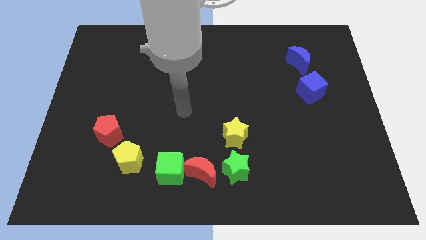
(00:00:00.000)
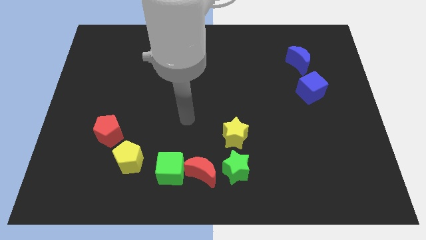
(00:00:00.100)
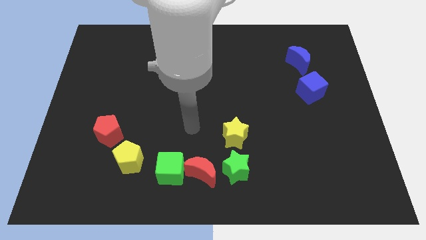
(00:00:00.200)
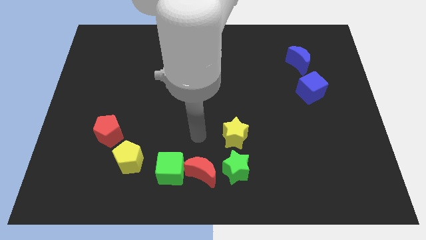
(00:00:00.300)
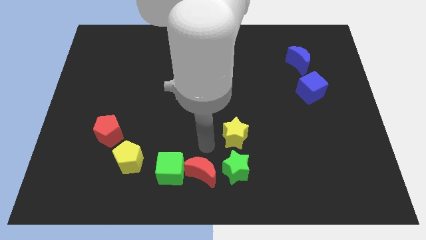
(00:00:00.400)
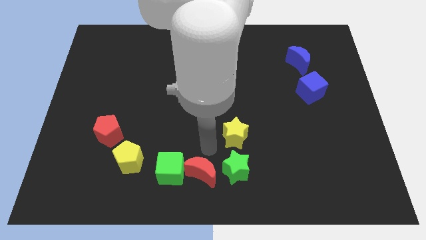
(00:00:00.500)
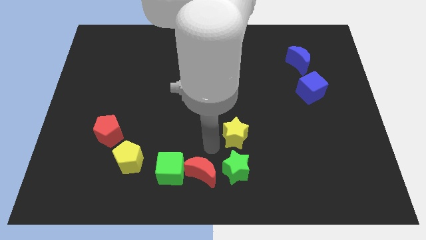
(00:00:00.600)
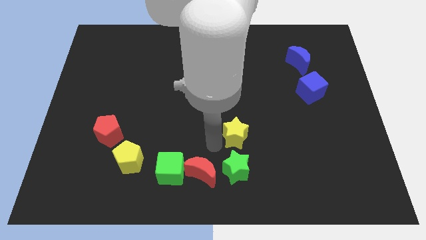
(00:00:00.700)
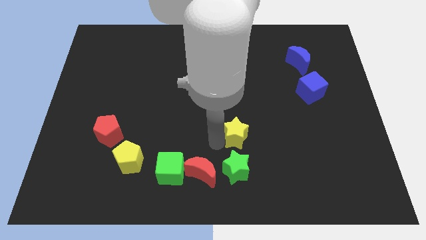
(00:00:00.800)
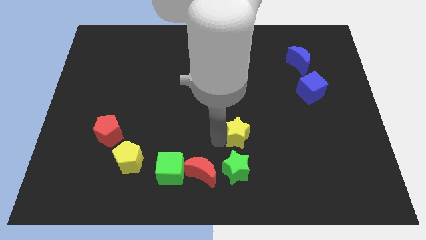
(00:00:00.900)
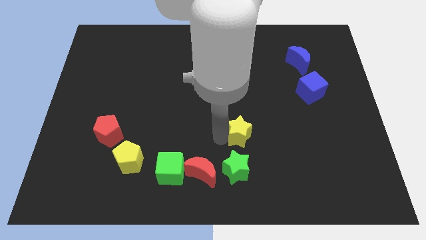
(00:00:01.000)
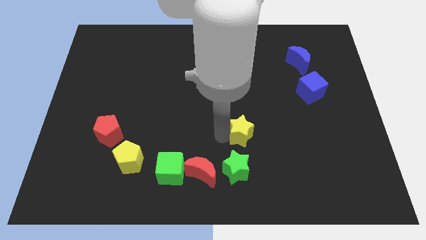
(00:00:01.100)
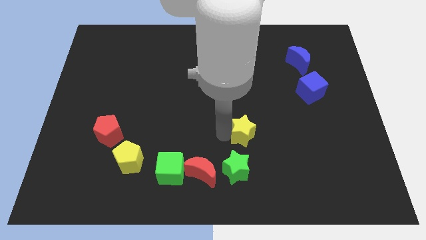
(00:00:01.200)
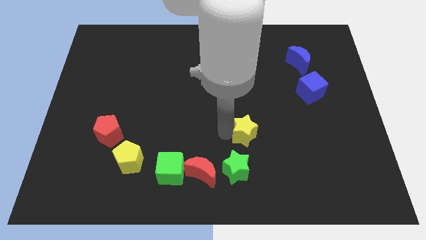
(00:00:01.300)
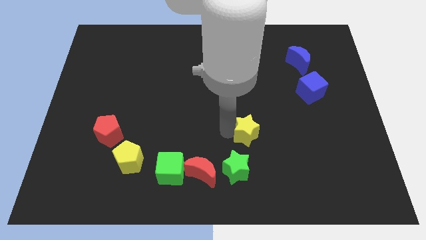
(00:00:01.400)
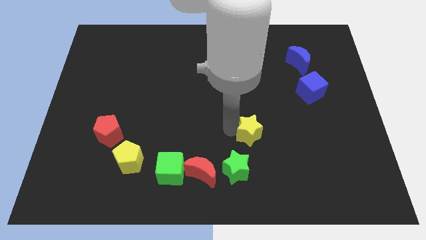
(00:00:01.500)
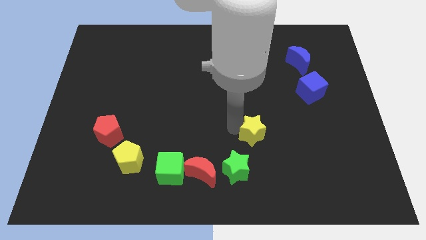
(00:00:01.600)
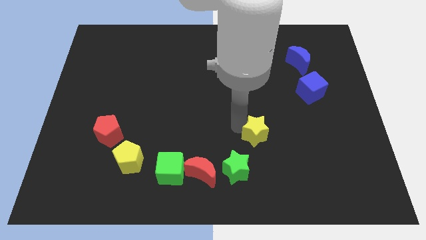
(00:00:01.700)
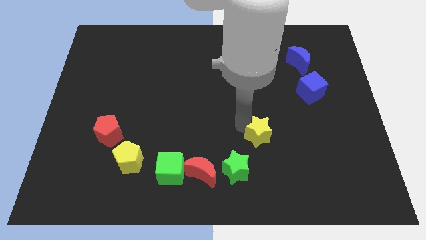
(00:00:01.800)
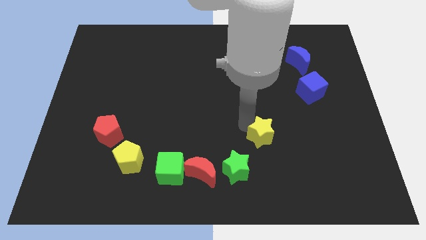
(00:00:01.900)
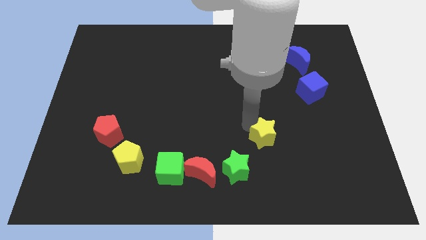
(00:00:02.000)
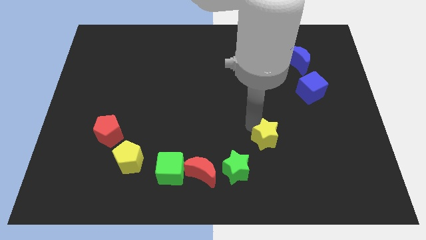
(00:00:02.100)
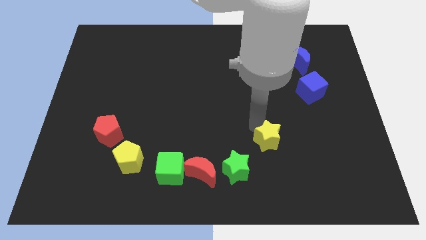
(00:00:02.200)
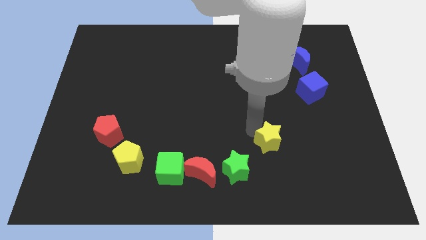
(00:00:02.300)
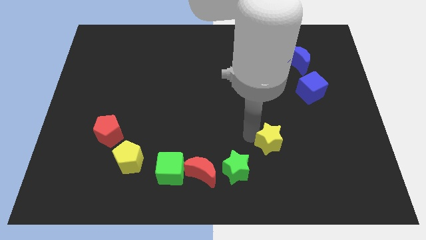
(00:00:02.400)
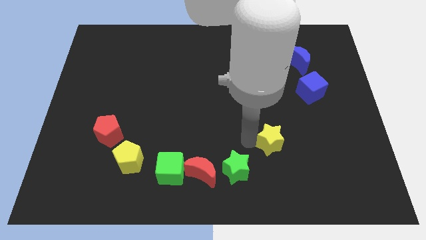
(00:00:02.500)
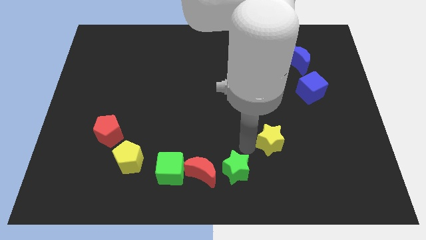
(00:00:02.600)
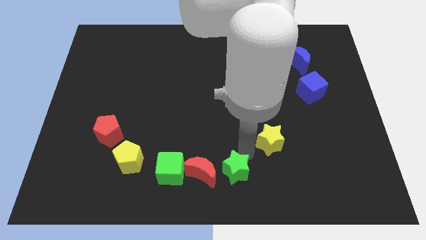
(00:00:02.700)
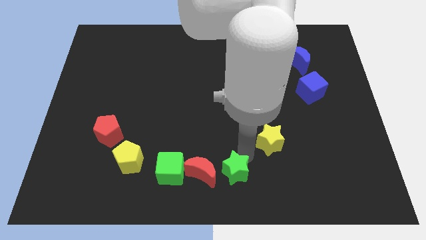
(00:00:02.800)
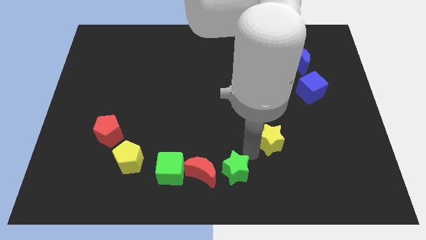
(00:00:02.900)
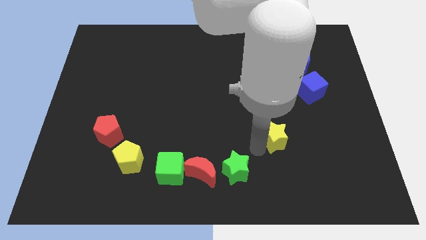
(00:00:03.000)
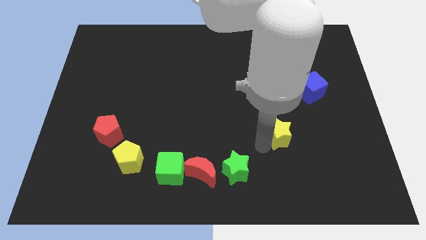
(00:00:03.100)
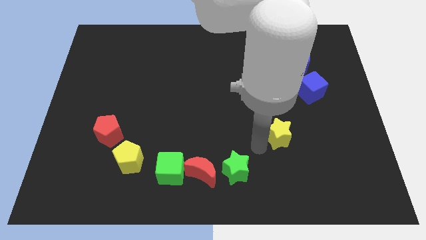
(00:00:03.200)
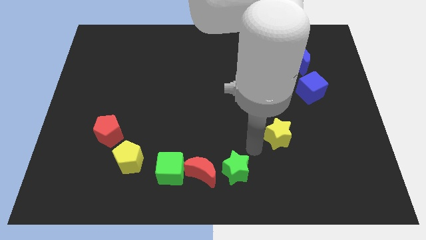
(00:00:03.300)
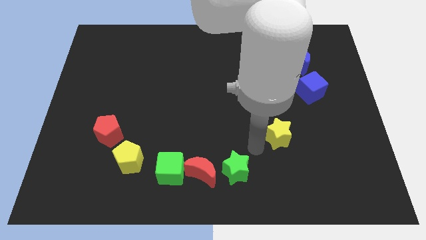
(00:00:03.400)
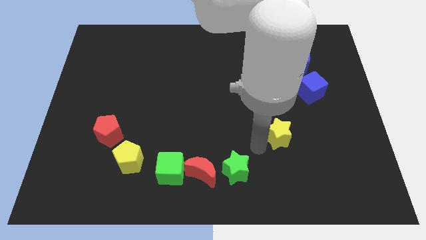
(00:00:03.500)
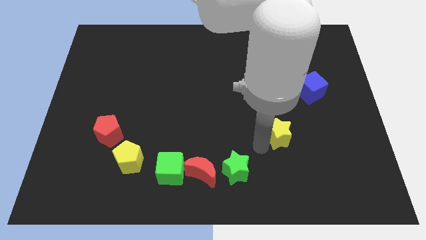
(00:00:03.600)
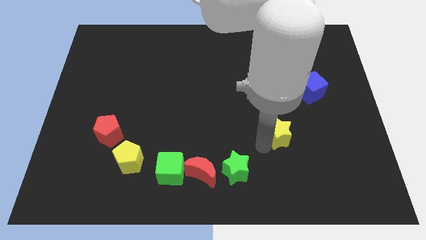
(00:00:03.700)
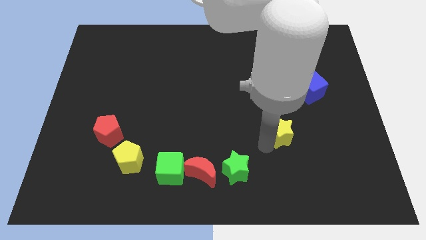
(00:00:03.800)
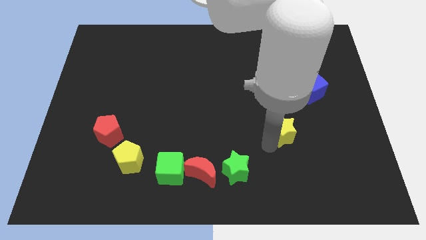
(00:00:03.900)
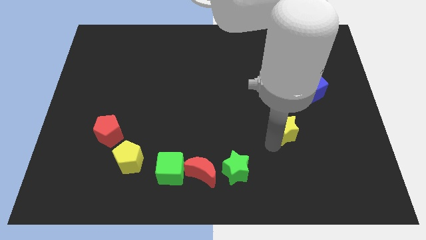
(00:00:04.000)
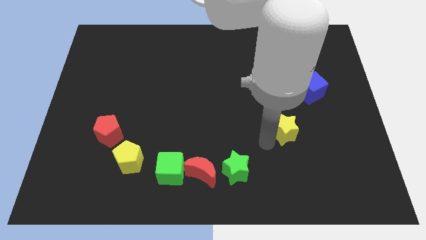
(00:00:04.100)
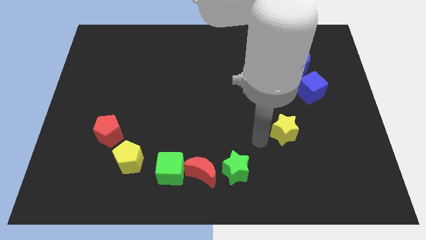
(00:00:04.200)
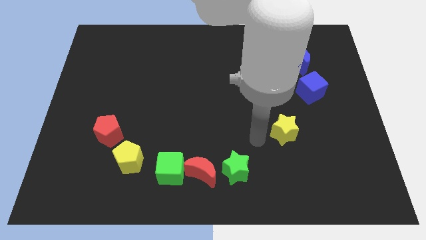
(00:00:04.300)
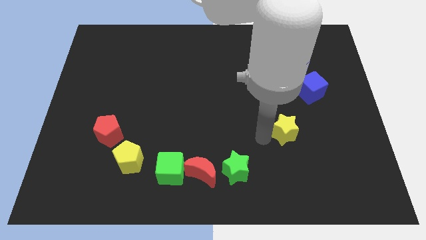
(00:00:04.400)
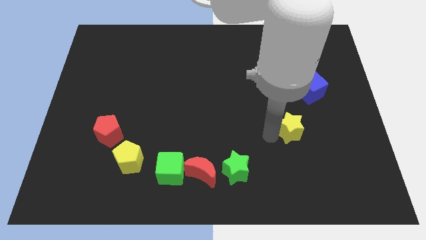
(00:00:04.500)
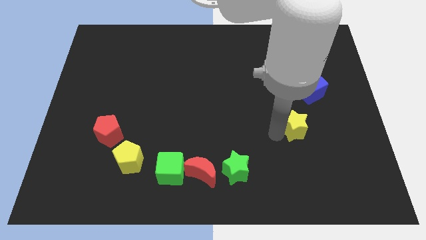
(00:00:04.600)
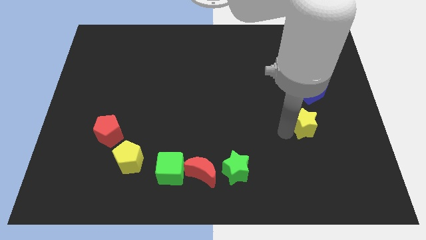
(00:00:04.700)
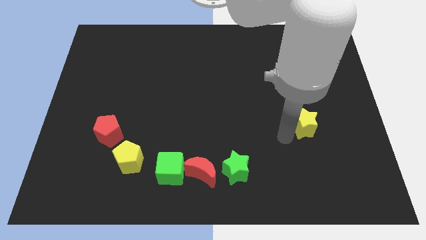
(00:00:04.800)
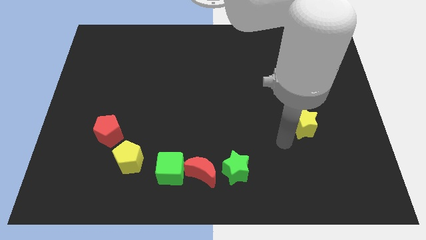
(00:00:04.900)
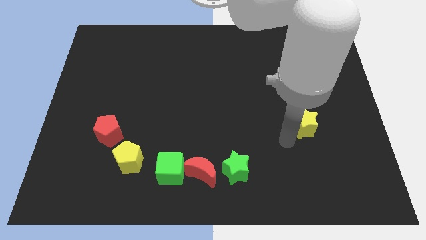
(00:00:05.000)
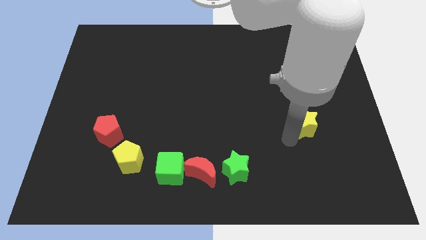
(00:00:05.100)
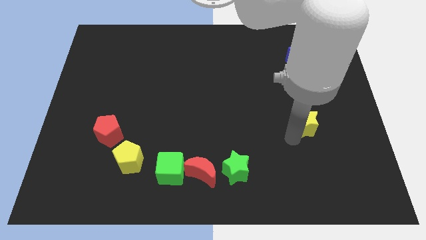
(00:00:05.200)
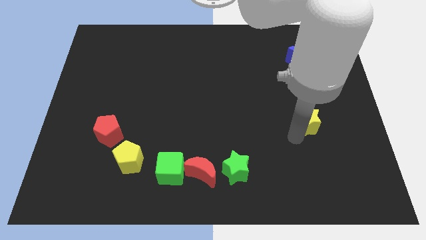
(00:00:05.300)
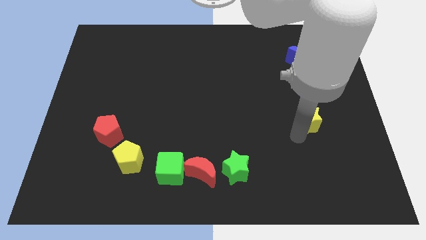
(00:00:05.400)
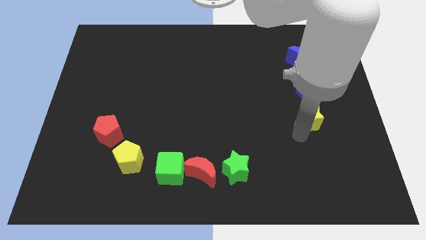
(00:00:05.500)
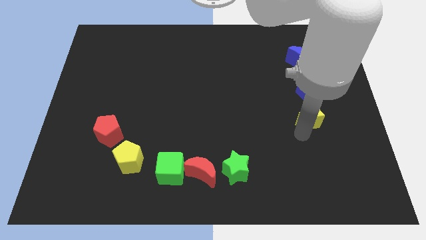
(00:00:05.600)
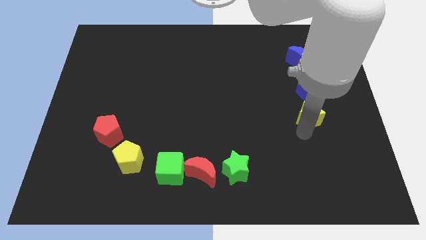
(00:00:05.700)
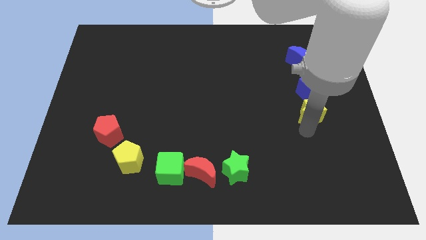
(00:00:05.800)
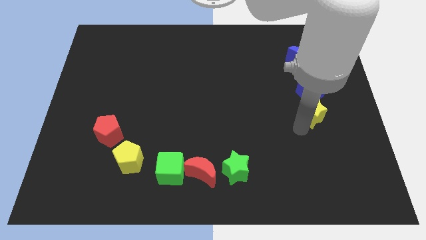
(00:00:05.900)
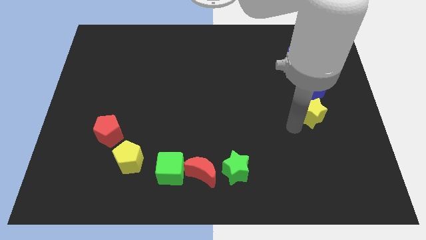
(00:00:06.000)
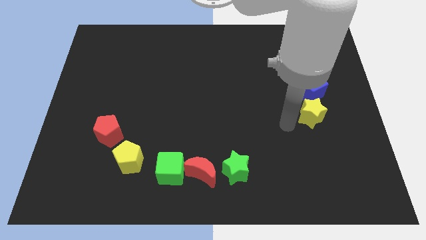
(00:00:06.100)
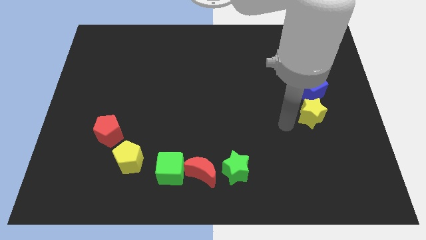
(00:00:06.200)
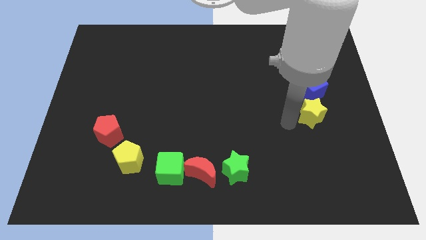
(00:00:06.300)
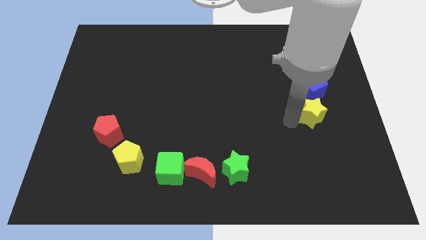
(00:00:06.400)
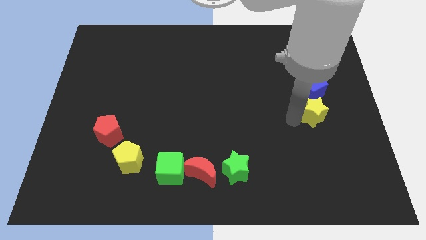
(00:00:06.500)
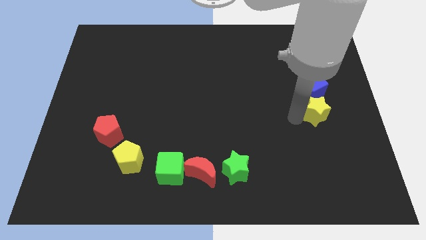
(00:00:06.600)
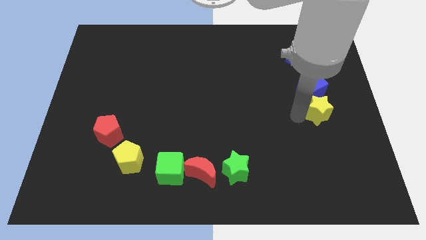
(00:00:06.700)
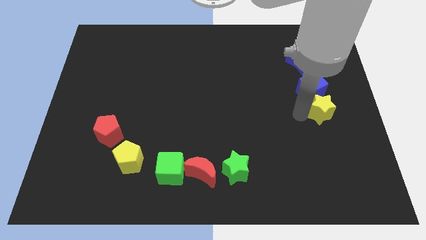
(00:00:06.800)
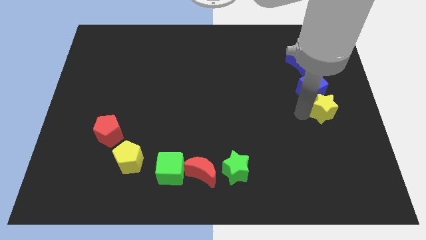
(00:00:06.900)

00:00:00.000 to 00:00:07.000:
move the yellow star to the right side
